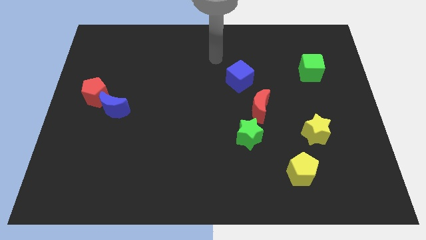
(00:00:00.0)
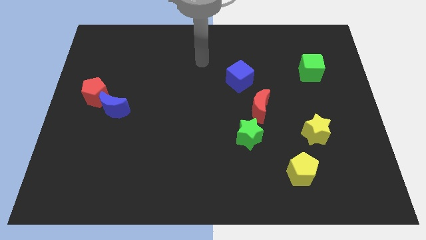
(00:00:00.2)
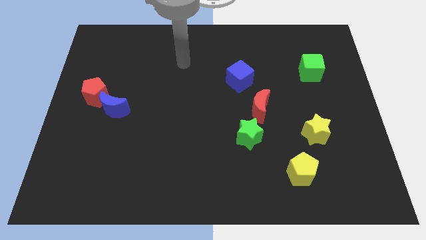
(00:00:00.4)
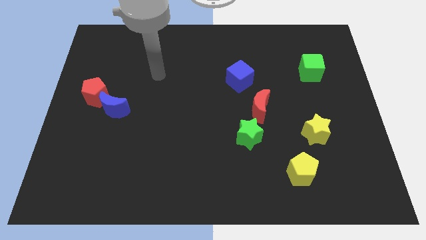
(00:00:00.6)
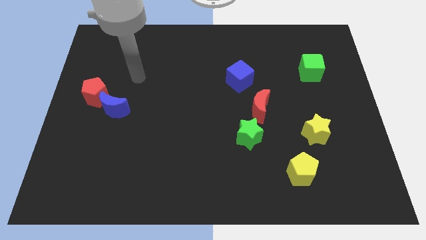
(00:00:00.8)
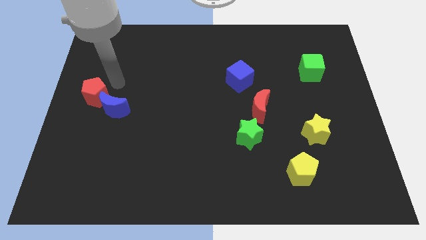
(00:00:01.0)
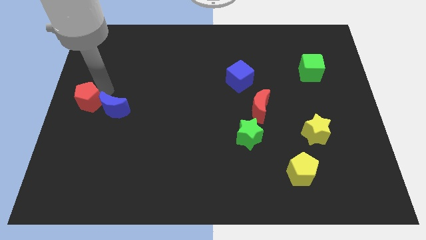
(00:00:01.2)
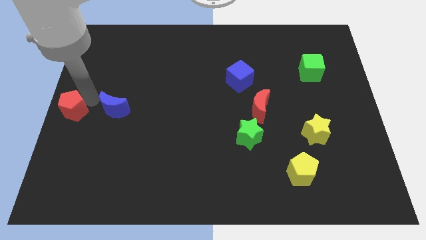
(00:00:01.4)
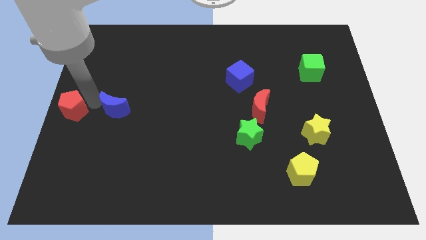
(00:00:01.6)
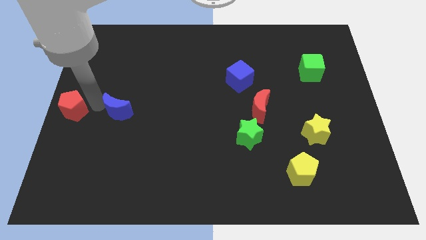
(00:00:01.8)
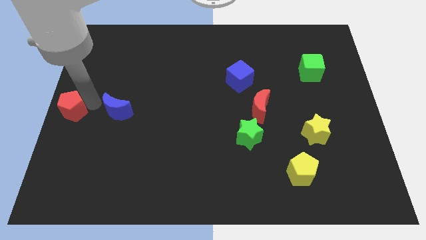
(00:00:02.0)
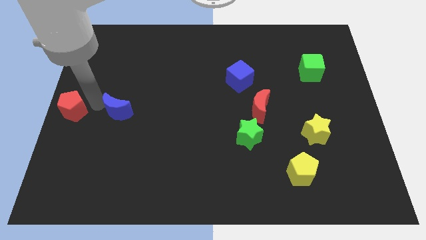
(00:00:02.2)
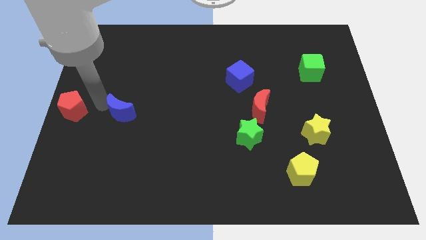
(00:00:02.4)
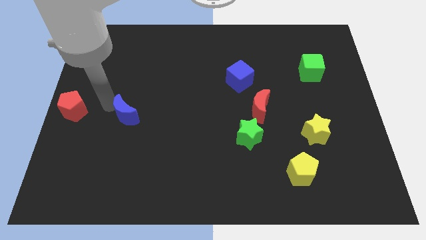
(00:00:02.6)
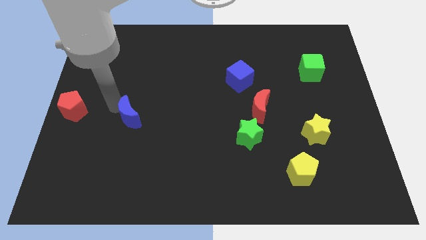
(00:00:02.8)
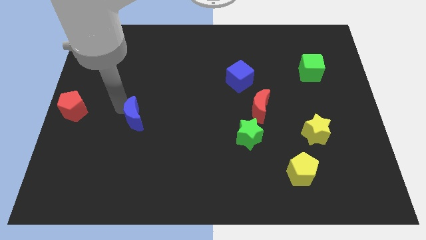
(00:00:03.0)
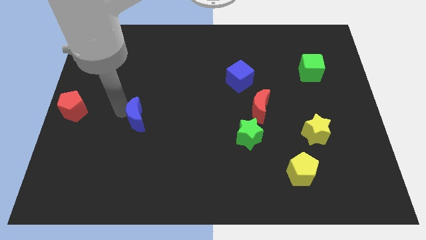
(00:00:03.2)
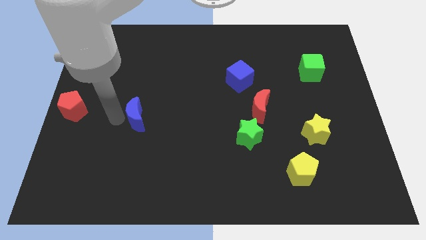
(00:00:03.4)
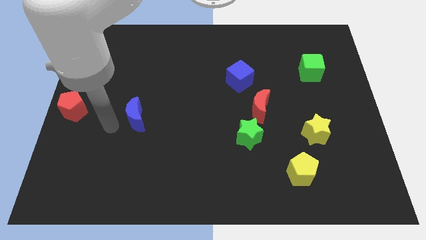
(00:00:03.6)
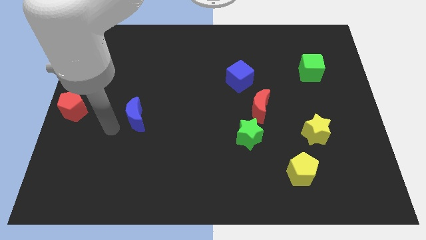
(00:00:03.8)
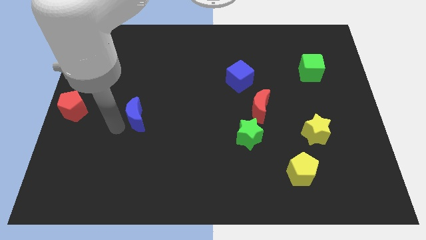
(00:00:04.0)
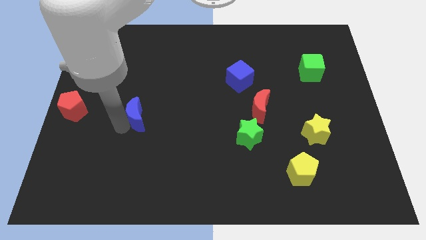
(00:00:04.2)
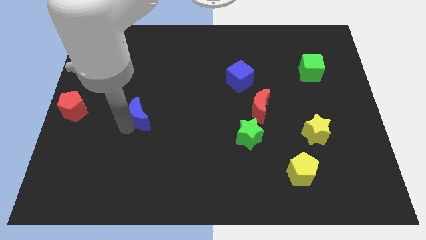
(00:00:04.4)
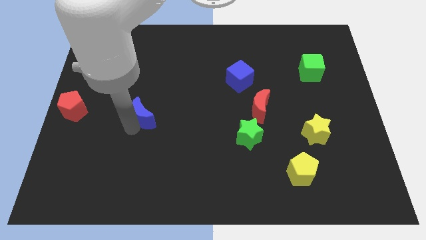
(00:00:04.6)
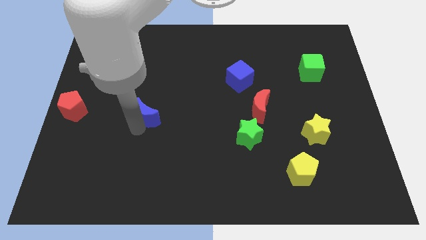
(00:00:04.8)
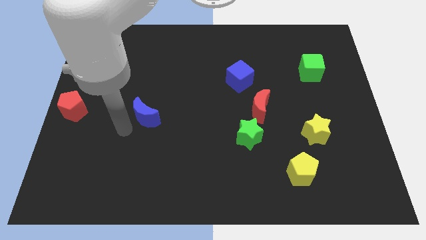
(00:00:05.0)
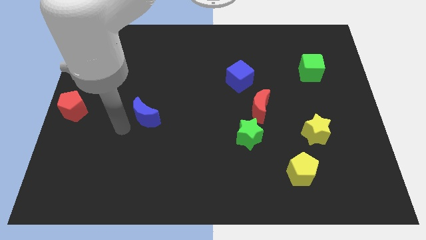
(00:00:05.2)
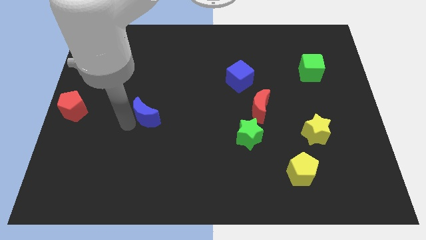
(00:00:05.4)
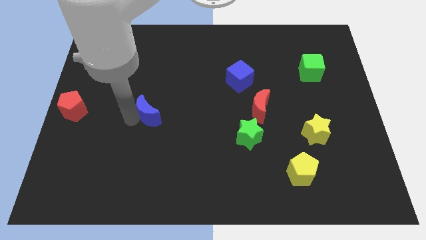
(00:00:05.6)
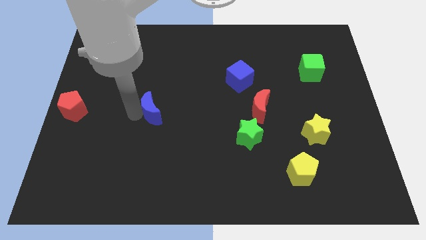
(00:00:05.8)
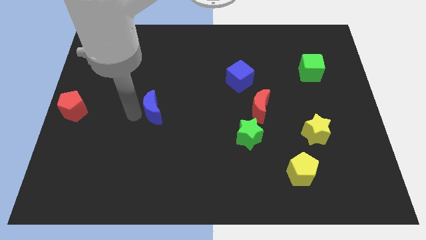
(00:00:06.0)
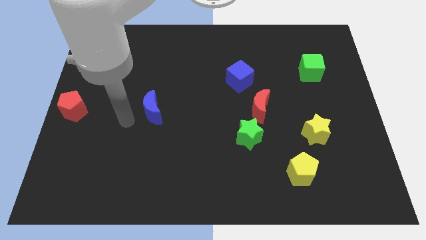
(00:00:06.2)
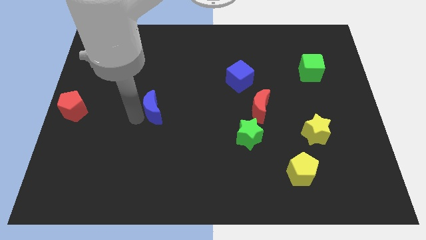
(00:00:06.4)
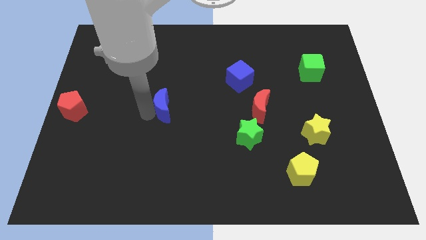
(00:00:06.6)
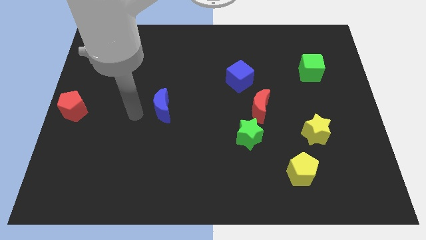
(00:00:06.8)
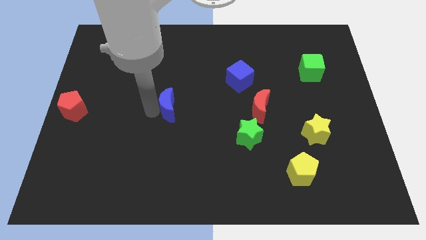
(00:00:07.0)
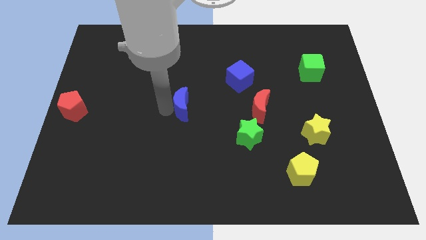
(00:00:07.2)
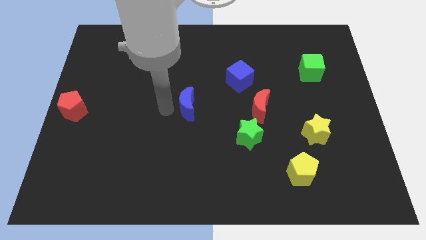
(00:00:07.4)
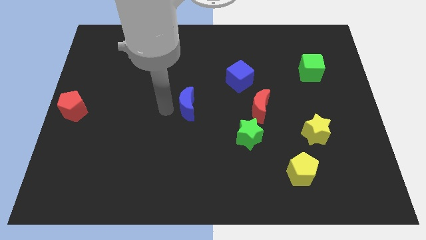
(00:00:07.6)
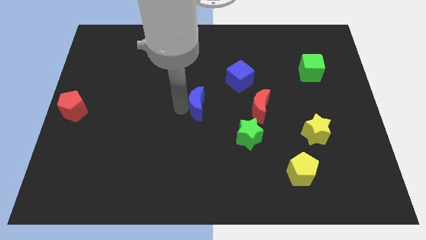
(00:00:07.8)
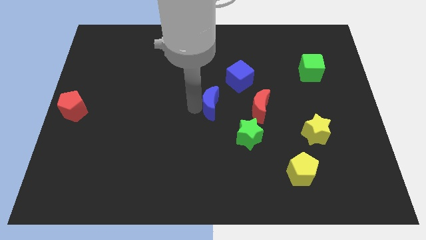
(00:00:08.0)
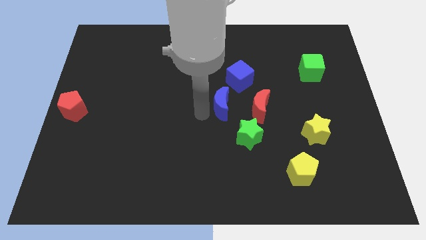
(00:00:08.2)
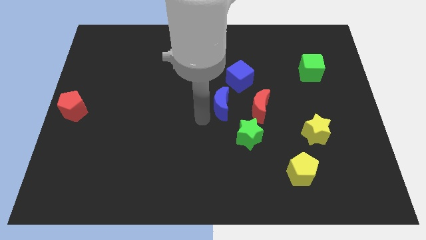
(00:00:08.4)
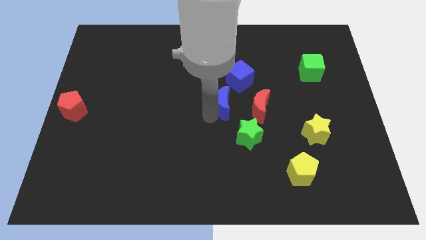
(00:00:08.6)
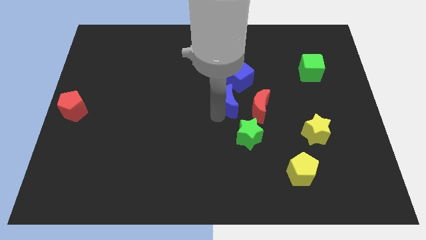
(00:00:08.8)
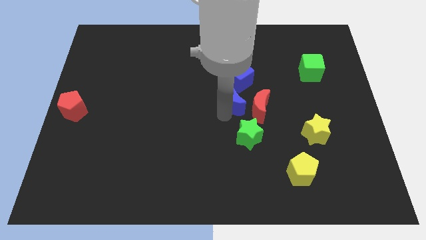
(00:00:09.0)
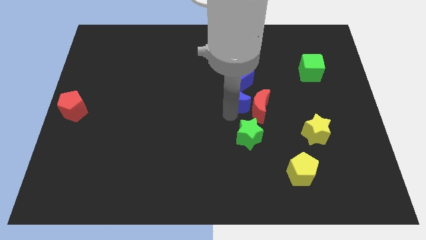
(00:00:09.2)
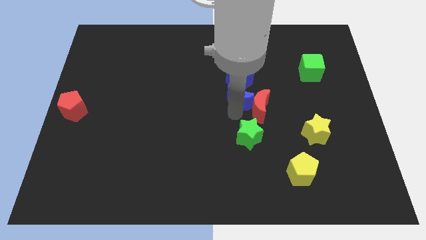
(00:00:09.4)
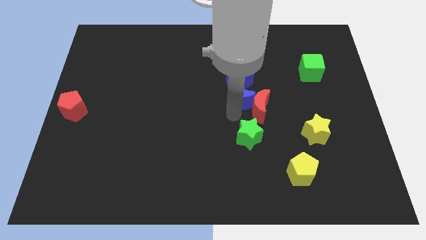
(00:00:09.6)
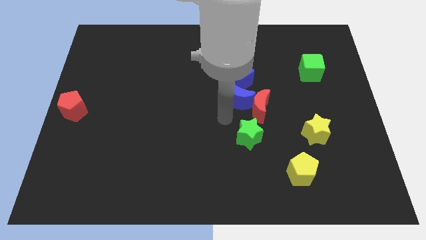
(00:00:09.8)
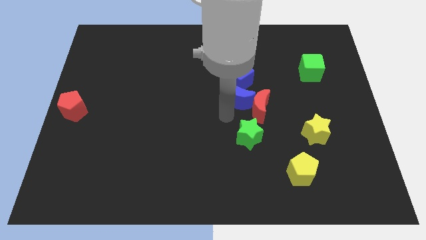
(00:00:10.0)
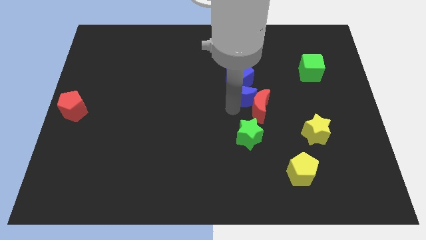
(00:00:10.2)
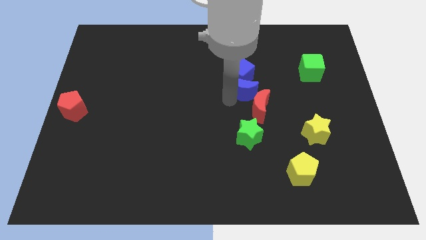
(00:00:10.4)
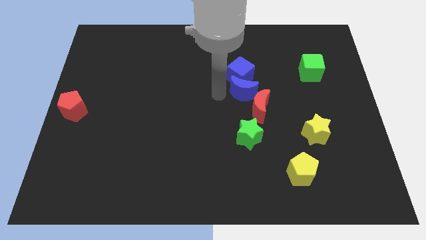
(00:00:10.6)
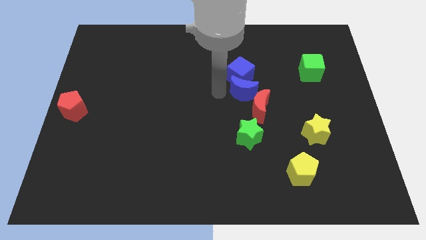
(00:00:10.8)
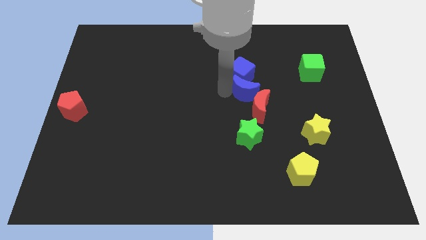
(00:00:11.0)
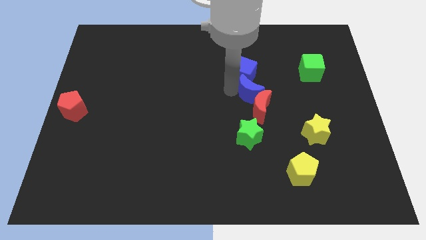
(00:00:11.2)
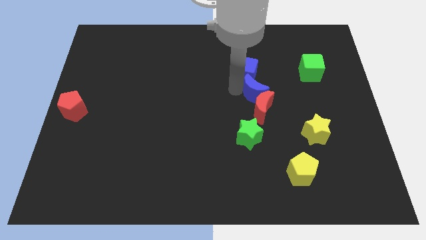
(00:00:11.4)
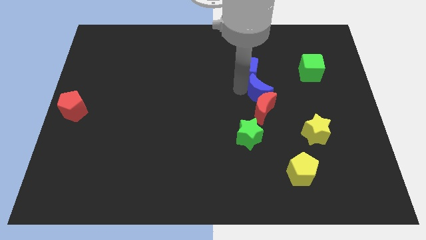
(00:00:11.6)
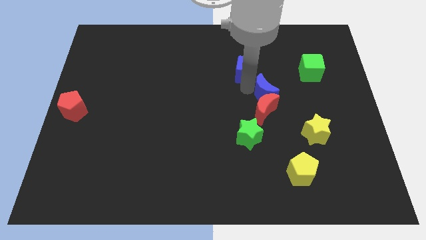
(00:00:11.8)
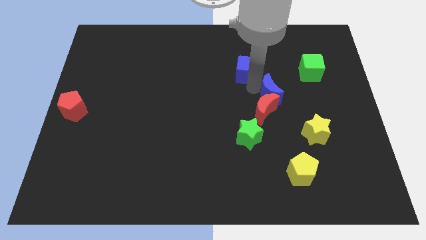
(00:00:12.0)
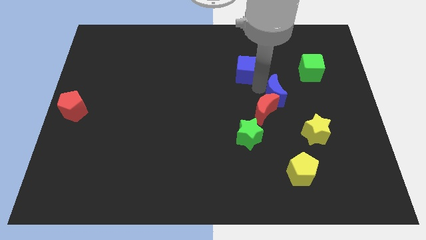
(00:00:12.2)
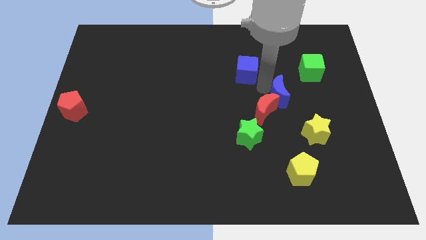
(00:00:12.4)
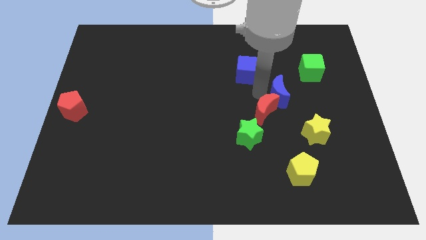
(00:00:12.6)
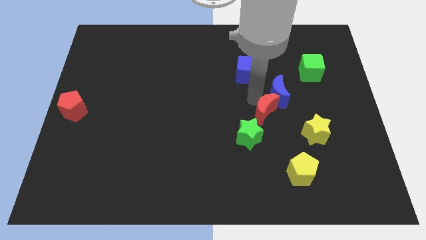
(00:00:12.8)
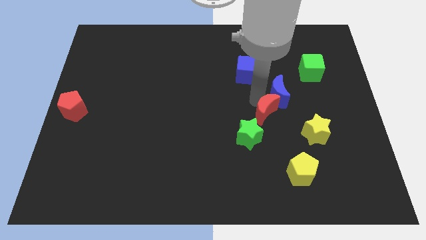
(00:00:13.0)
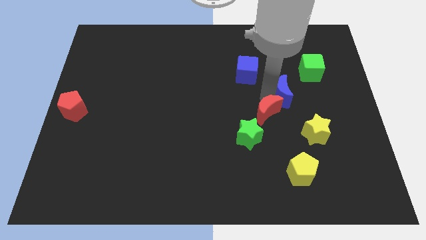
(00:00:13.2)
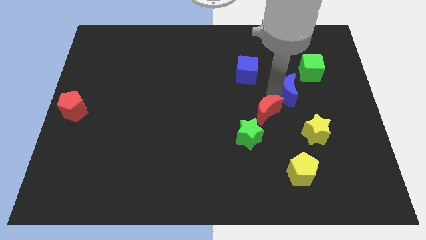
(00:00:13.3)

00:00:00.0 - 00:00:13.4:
move the blue moon to the top of the yellow star

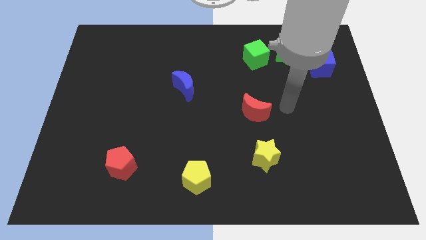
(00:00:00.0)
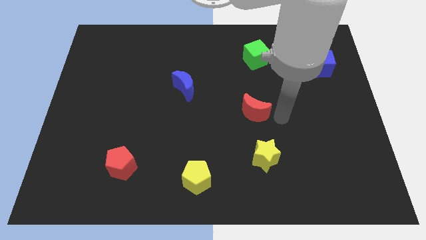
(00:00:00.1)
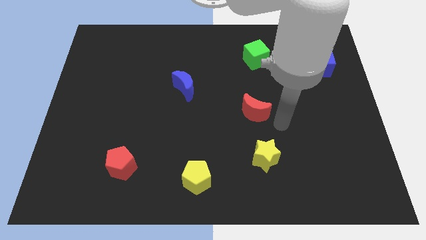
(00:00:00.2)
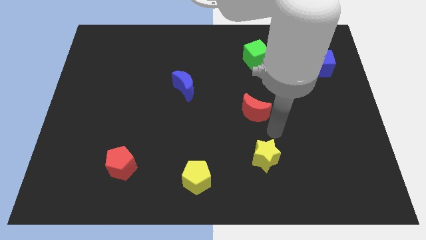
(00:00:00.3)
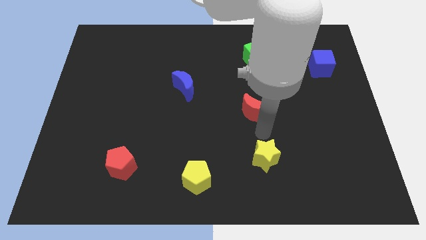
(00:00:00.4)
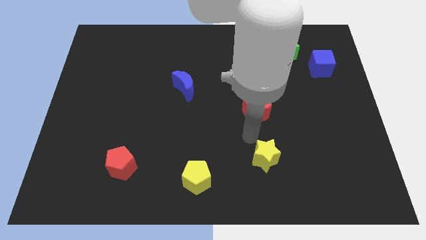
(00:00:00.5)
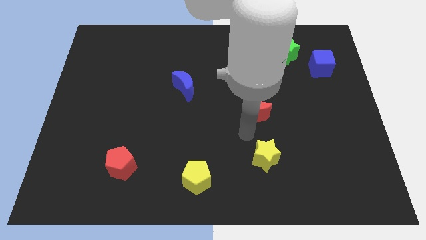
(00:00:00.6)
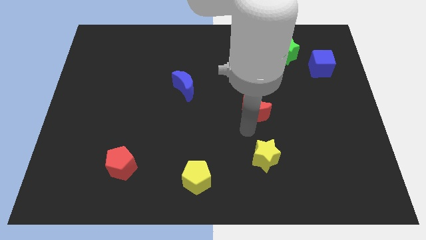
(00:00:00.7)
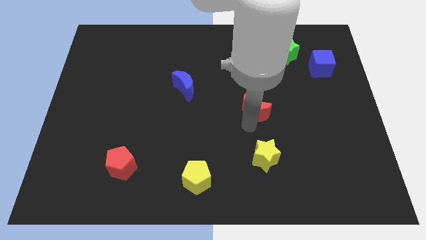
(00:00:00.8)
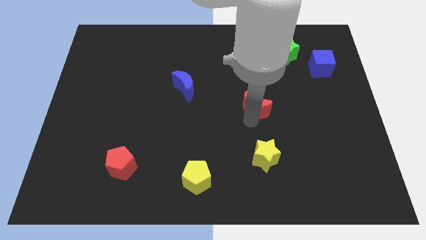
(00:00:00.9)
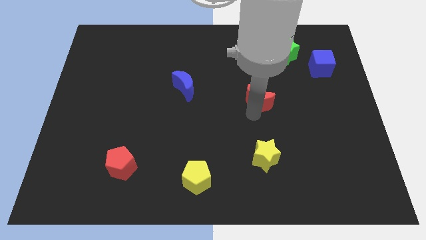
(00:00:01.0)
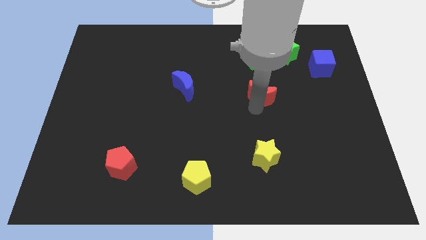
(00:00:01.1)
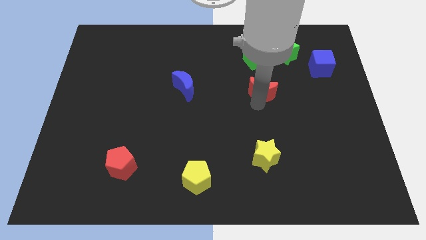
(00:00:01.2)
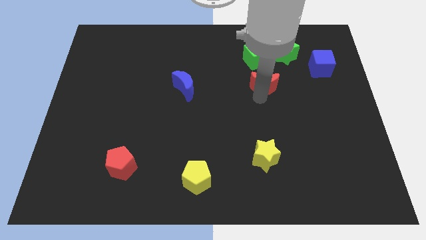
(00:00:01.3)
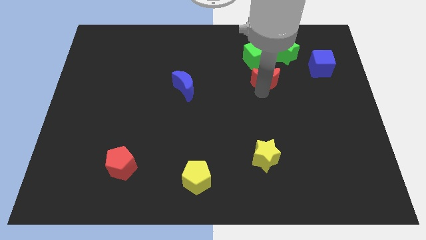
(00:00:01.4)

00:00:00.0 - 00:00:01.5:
move the red moon to the bottom left of the green star
